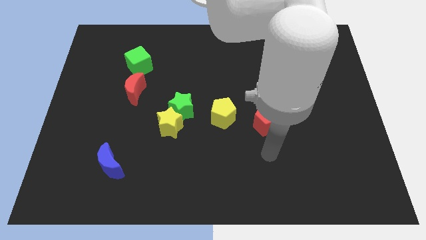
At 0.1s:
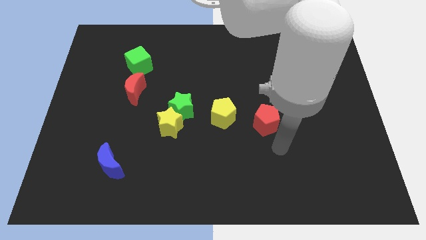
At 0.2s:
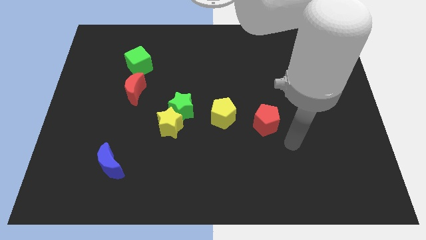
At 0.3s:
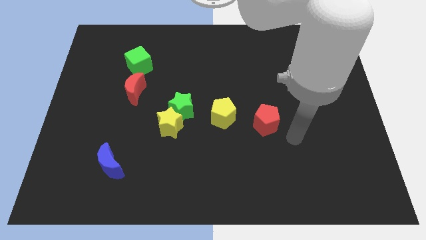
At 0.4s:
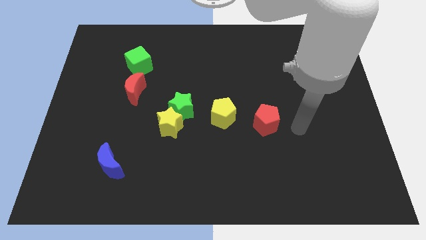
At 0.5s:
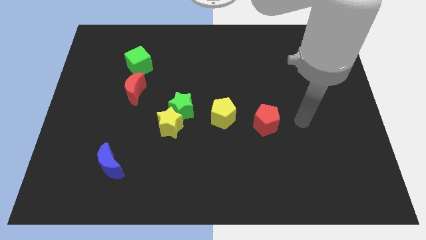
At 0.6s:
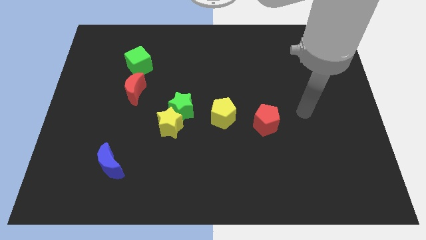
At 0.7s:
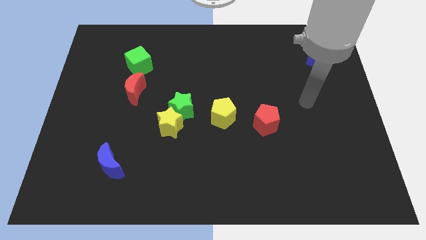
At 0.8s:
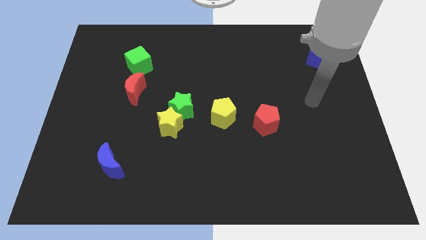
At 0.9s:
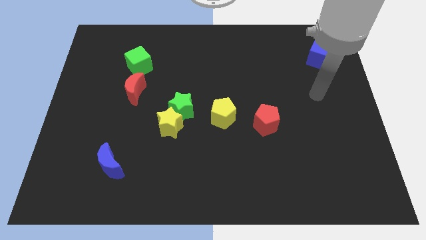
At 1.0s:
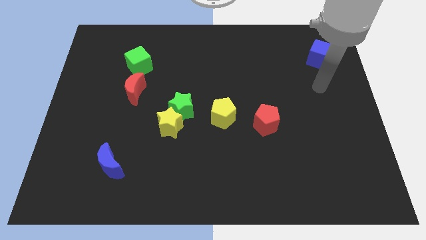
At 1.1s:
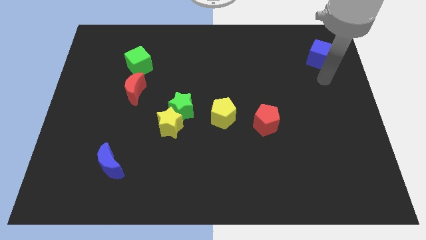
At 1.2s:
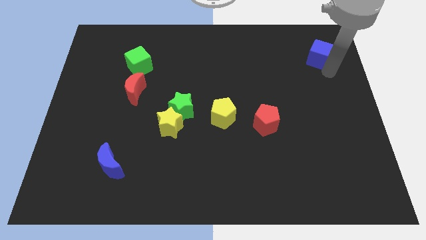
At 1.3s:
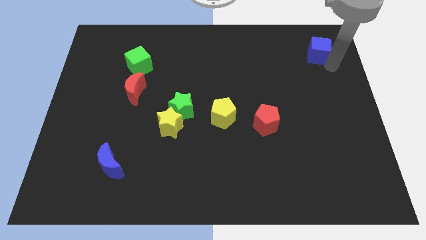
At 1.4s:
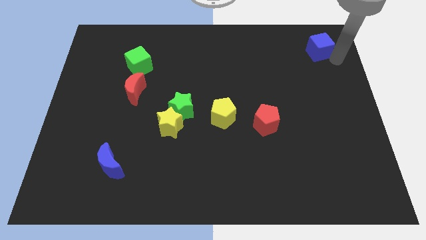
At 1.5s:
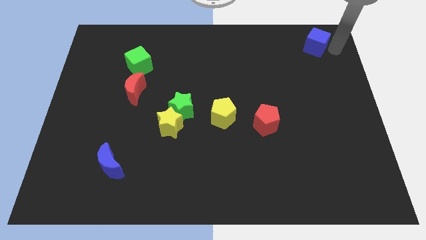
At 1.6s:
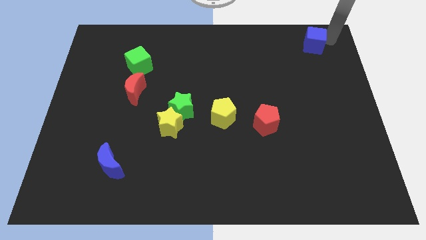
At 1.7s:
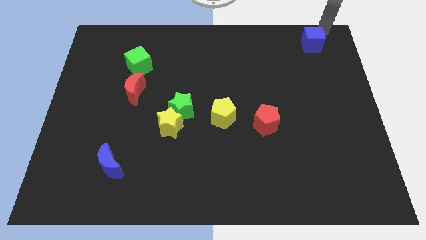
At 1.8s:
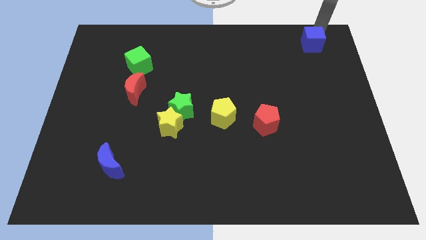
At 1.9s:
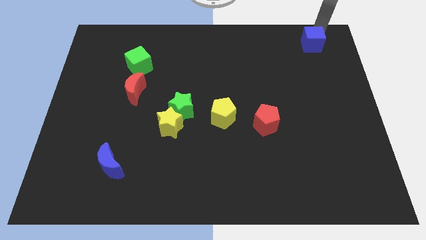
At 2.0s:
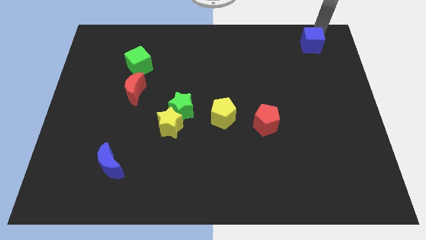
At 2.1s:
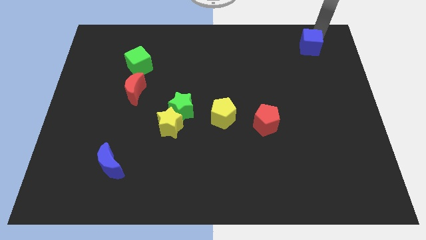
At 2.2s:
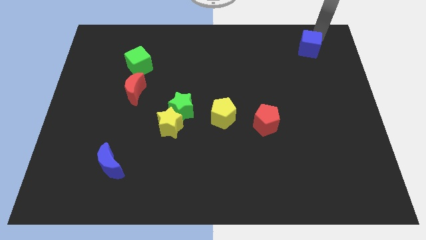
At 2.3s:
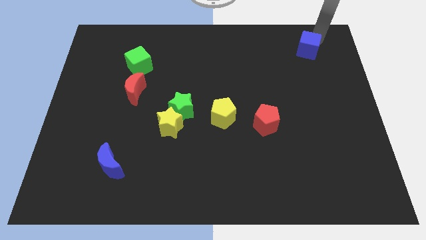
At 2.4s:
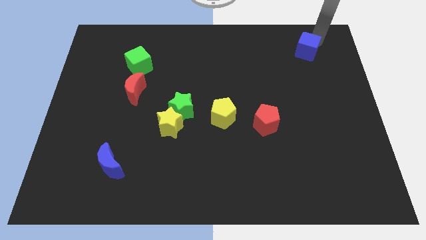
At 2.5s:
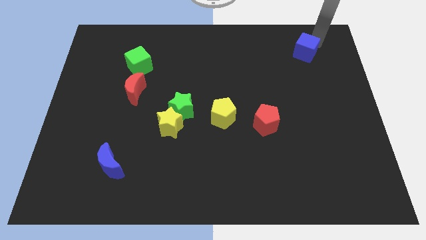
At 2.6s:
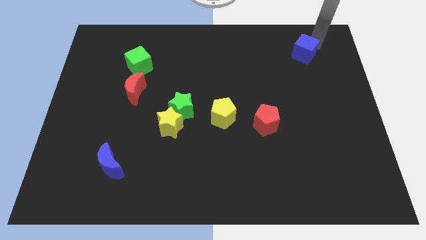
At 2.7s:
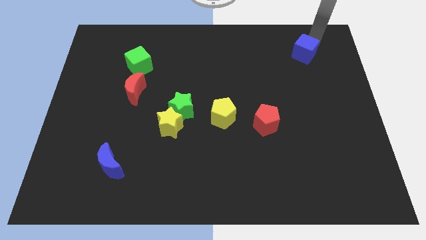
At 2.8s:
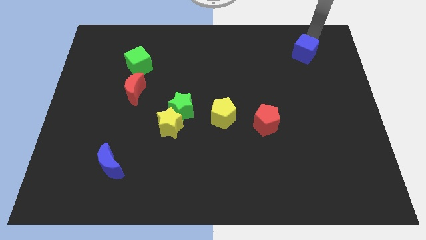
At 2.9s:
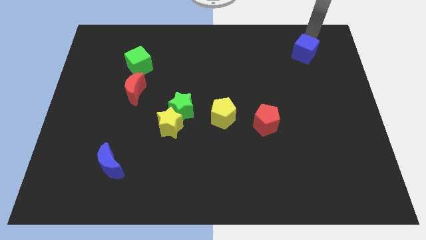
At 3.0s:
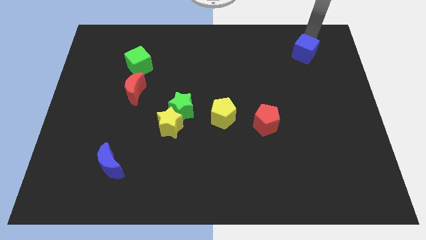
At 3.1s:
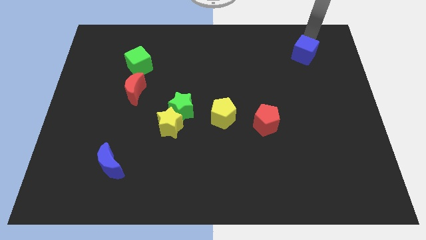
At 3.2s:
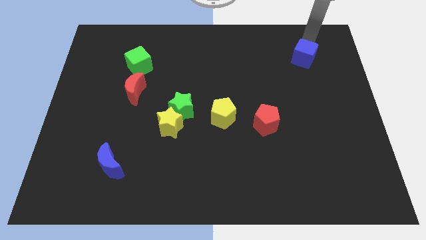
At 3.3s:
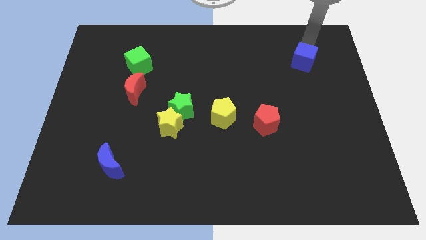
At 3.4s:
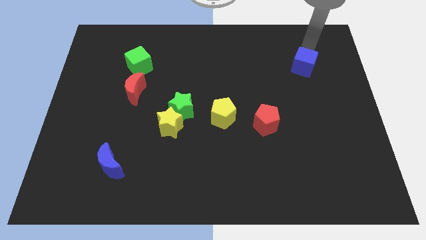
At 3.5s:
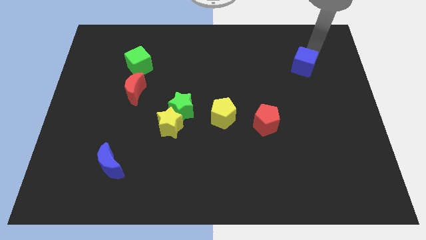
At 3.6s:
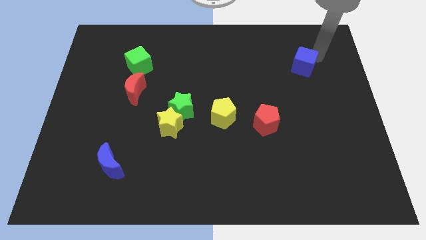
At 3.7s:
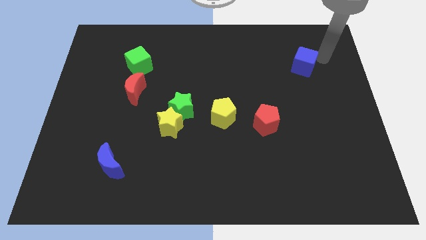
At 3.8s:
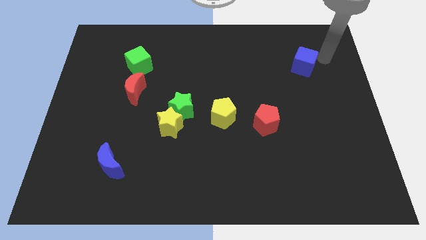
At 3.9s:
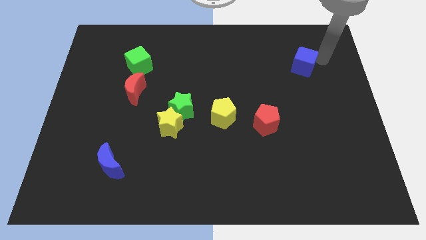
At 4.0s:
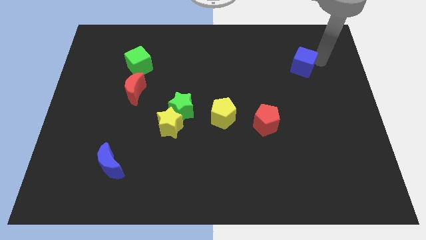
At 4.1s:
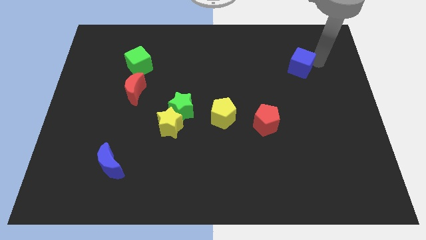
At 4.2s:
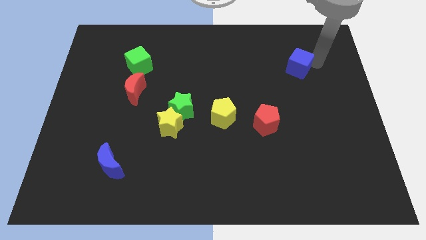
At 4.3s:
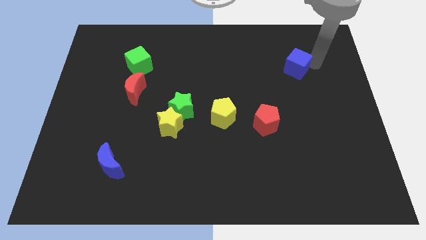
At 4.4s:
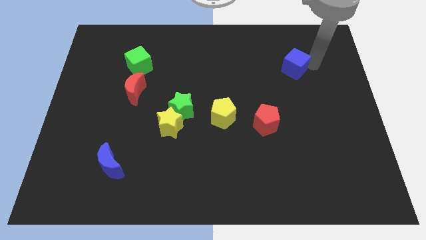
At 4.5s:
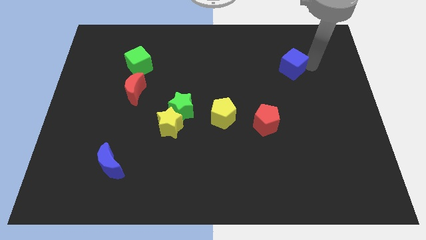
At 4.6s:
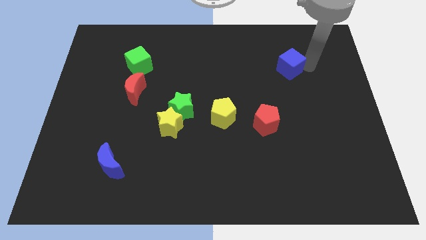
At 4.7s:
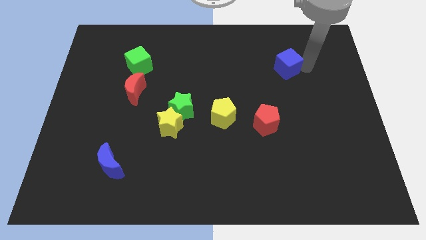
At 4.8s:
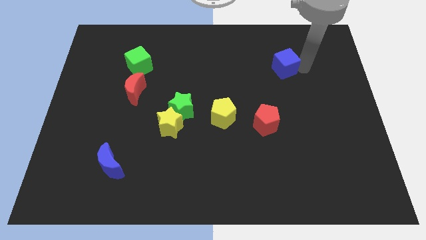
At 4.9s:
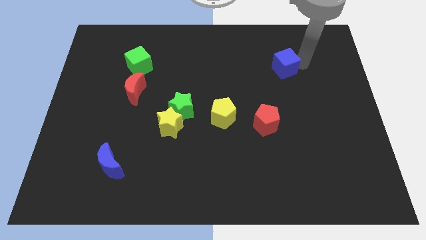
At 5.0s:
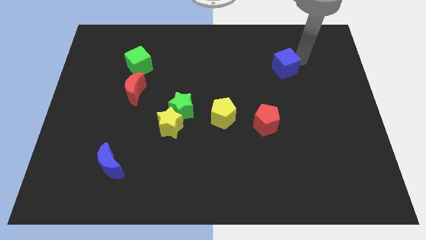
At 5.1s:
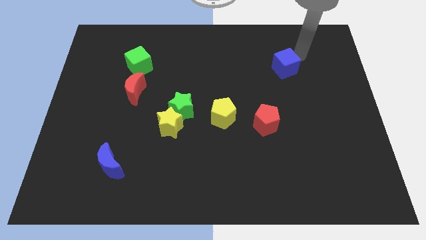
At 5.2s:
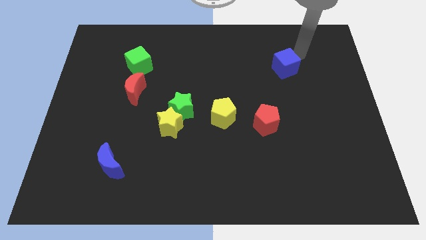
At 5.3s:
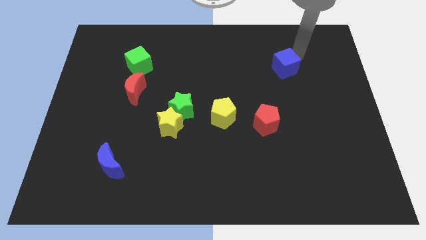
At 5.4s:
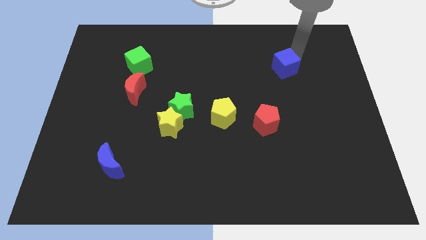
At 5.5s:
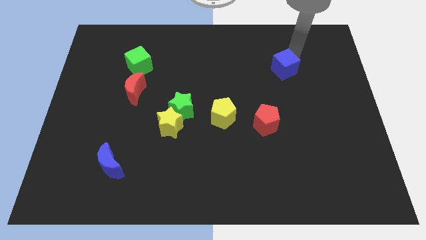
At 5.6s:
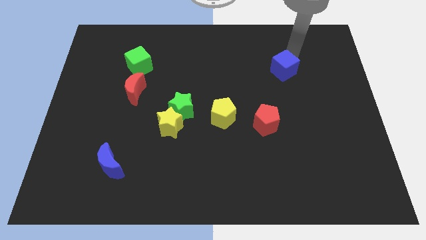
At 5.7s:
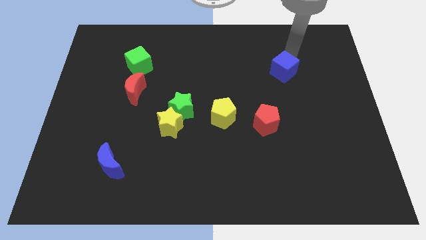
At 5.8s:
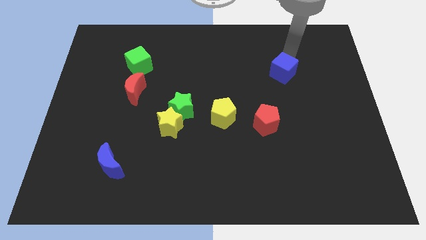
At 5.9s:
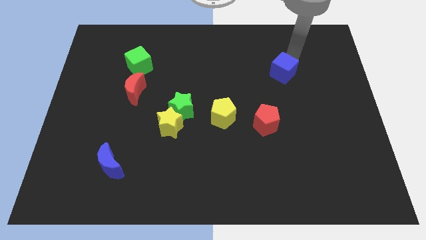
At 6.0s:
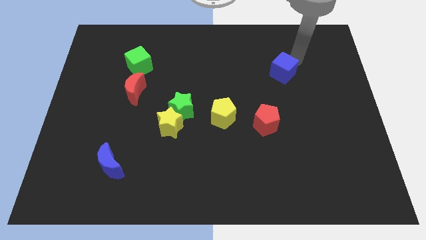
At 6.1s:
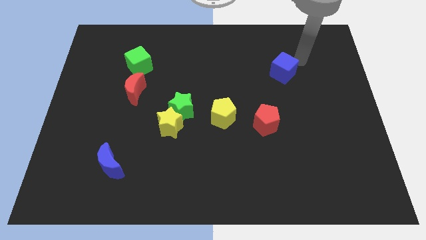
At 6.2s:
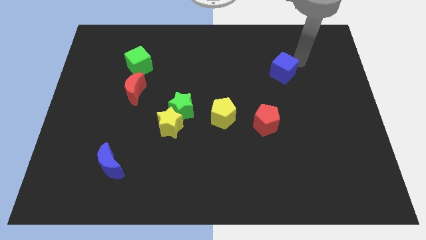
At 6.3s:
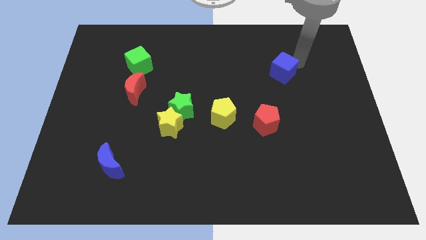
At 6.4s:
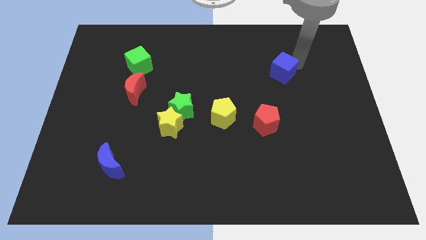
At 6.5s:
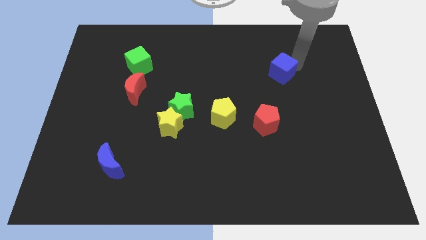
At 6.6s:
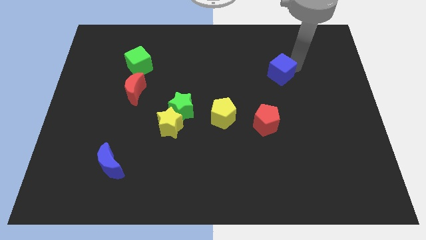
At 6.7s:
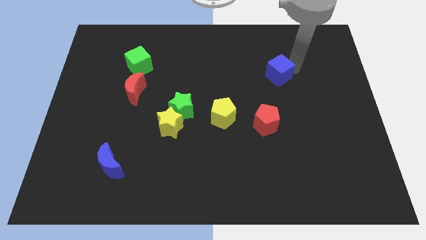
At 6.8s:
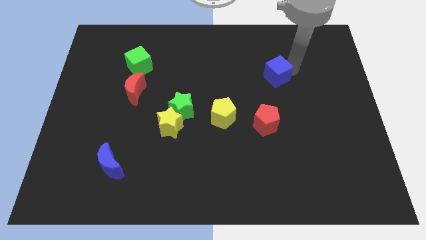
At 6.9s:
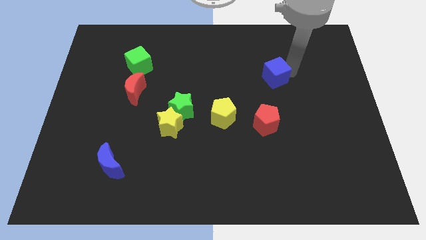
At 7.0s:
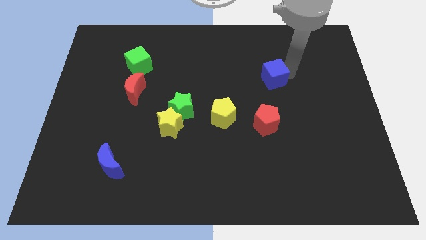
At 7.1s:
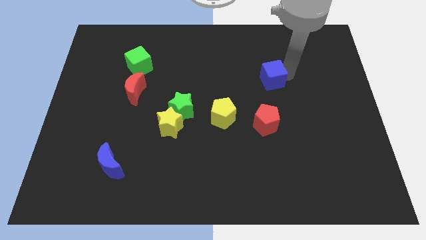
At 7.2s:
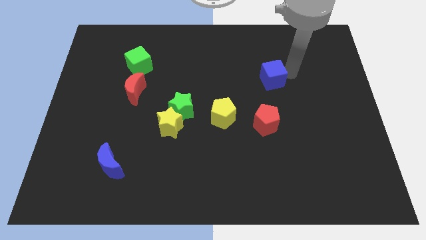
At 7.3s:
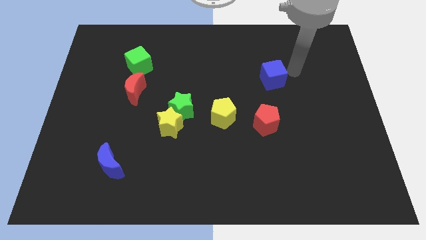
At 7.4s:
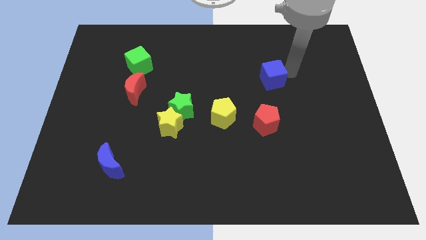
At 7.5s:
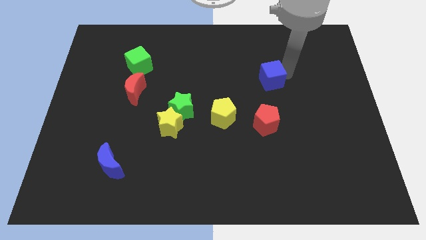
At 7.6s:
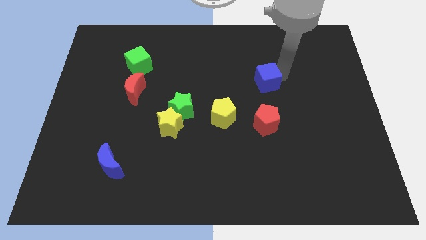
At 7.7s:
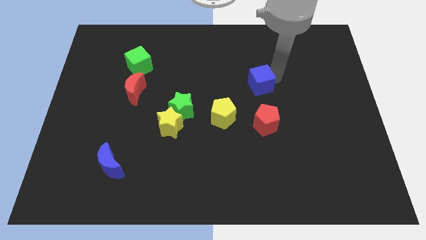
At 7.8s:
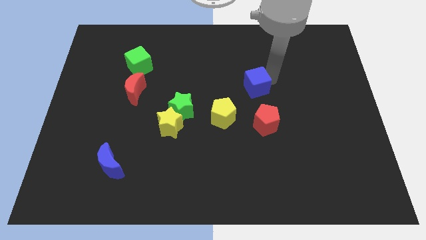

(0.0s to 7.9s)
put the blue cube to the center of the board
